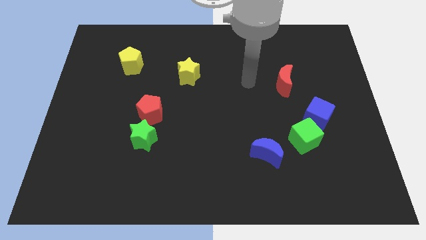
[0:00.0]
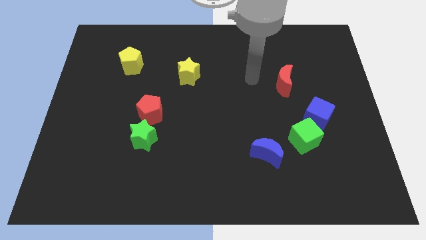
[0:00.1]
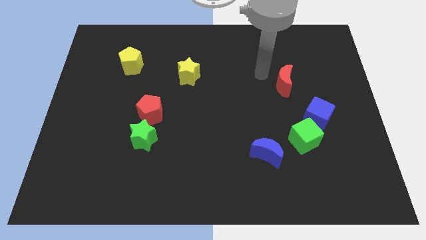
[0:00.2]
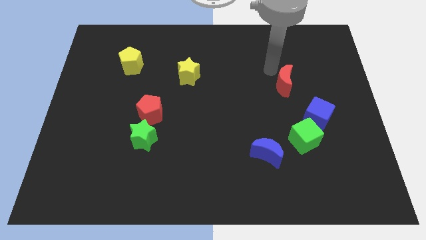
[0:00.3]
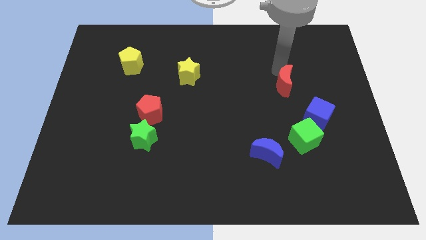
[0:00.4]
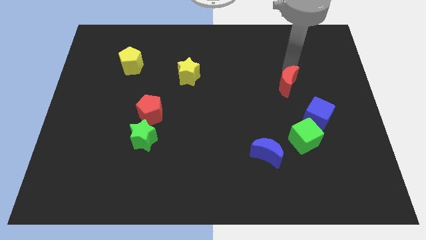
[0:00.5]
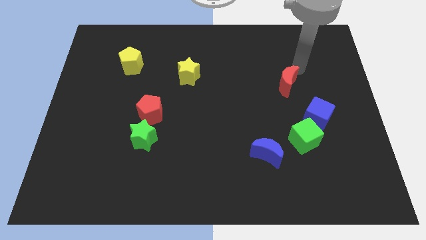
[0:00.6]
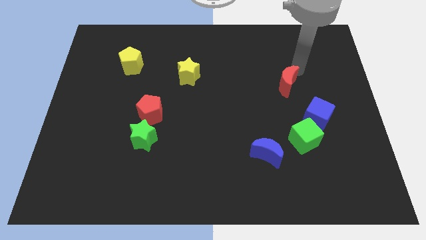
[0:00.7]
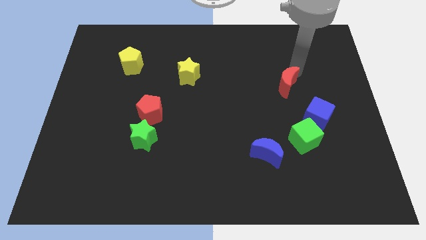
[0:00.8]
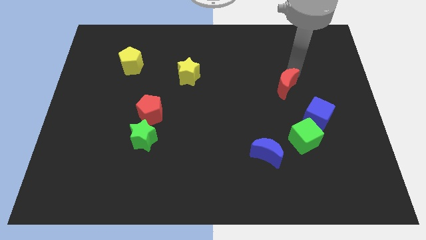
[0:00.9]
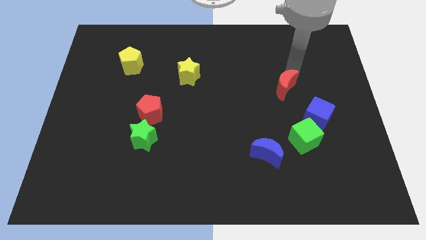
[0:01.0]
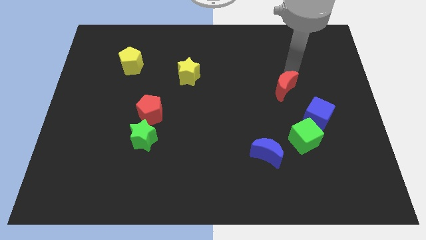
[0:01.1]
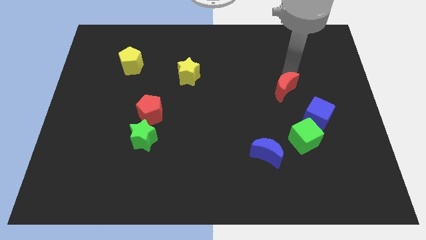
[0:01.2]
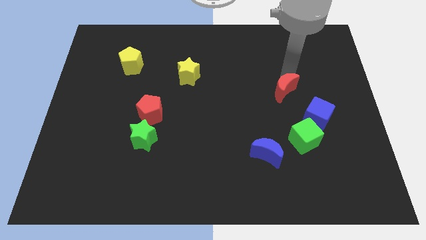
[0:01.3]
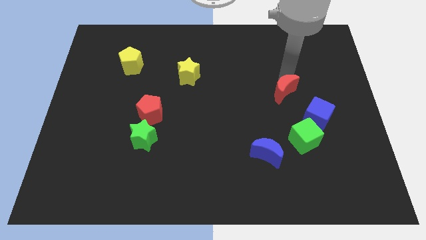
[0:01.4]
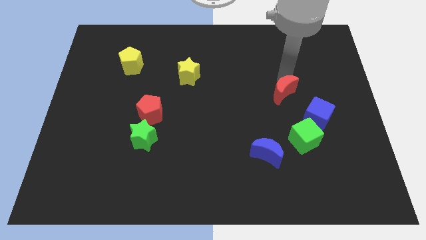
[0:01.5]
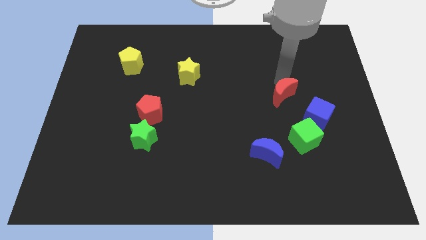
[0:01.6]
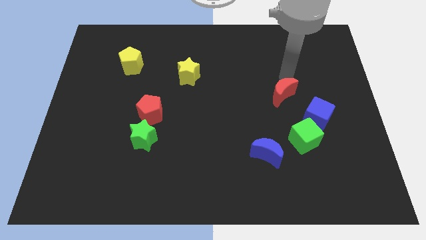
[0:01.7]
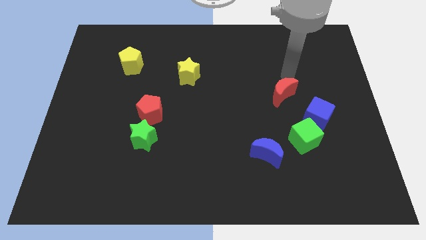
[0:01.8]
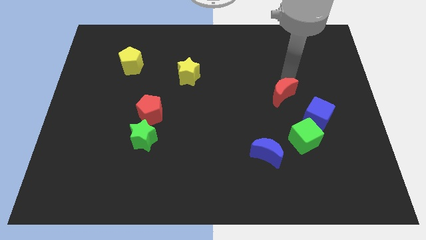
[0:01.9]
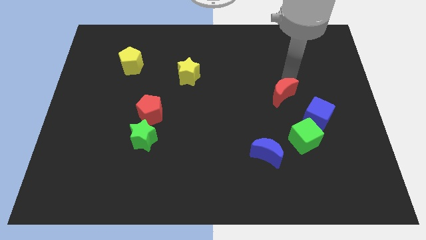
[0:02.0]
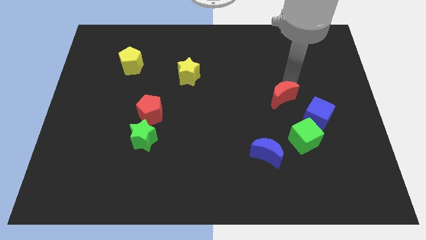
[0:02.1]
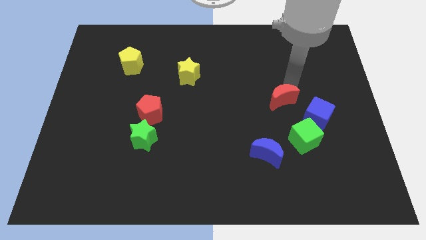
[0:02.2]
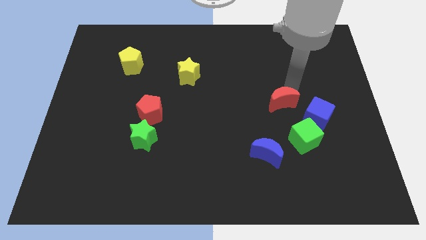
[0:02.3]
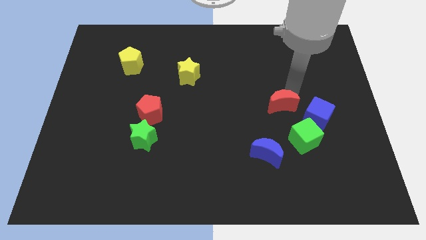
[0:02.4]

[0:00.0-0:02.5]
slightly push the red moon downwards

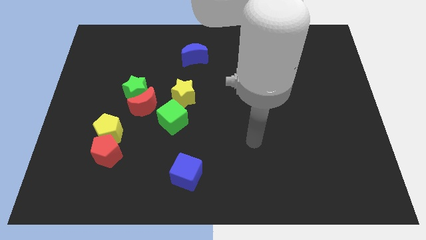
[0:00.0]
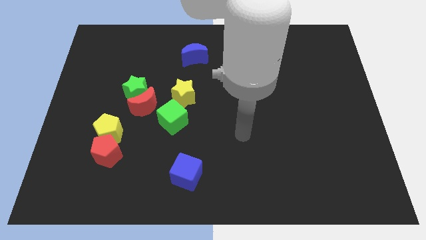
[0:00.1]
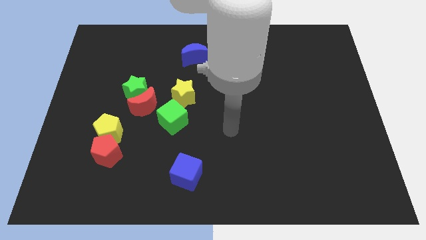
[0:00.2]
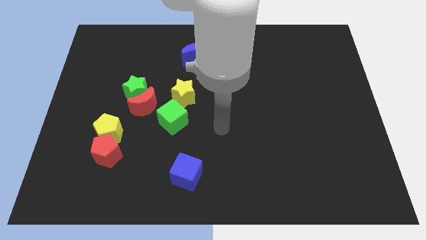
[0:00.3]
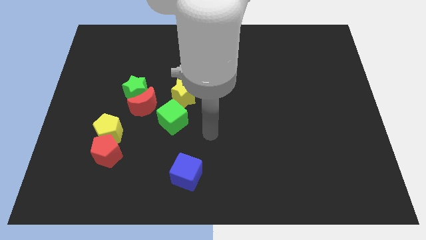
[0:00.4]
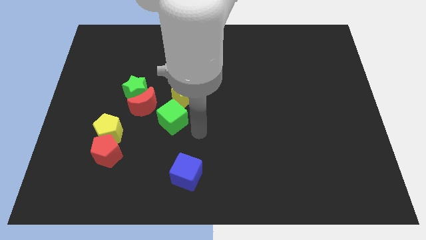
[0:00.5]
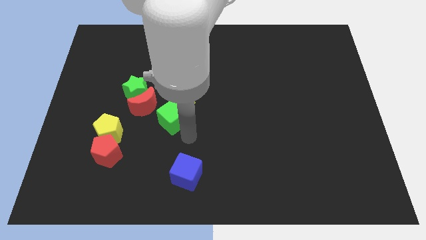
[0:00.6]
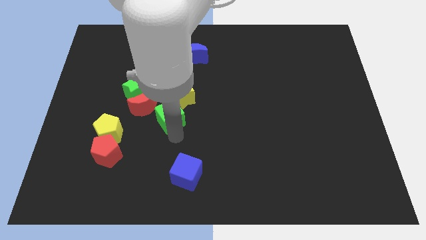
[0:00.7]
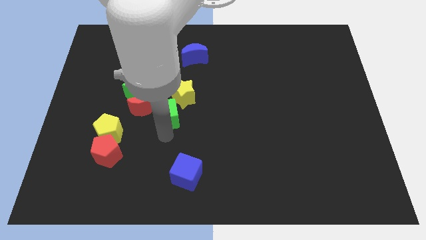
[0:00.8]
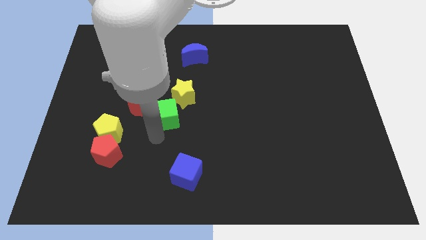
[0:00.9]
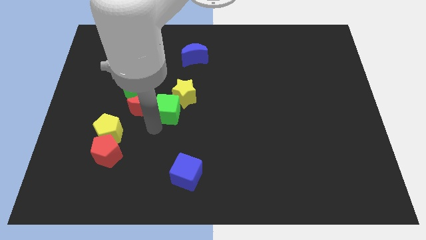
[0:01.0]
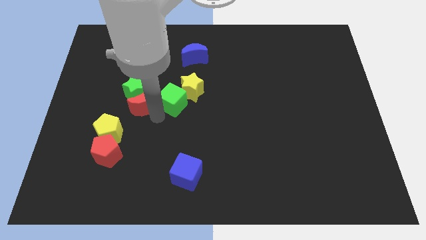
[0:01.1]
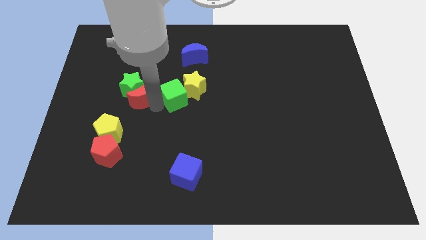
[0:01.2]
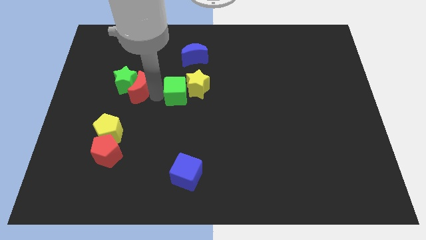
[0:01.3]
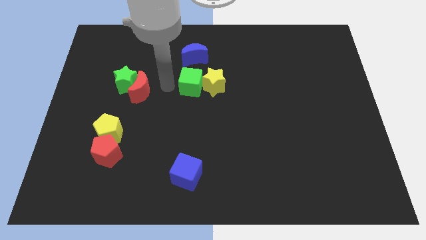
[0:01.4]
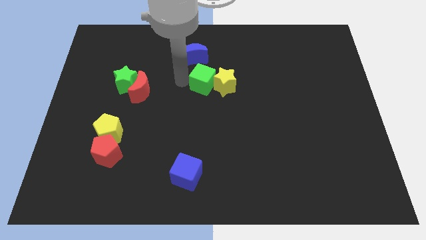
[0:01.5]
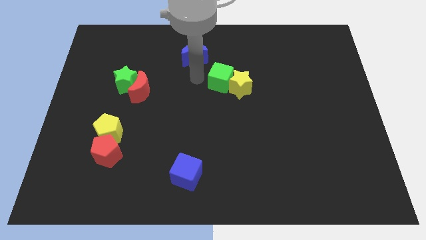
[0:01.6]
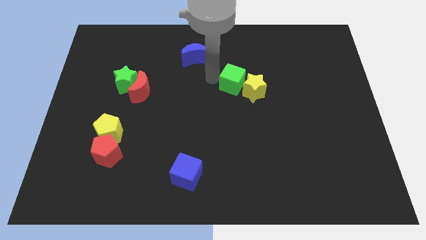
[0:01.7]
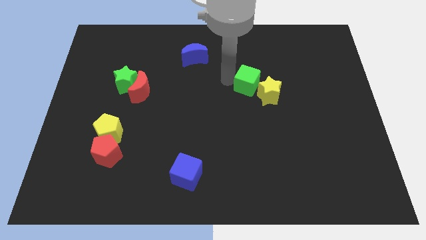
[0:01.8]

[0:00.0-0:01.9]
slide the yellow star right

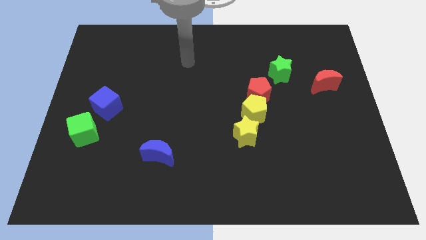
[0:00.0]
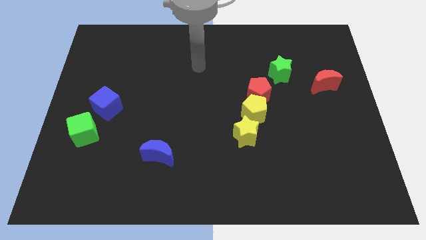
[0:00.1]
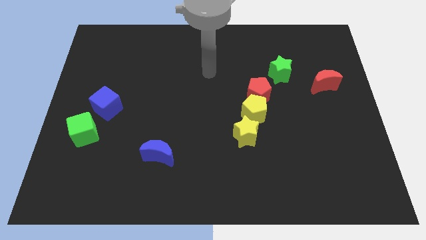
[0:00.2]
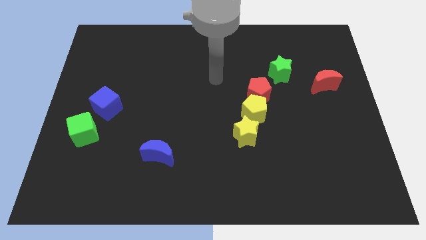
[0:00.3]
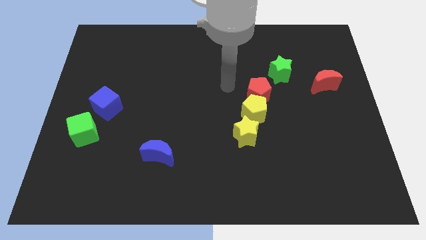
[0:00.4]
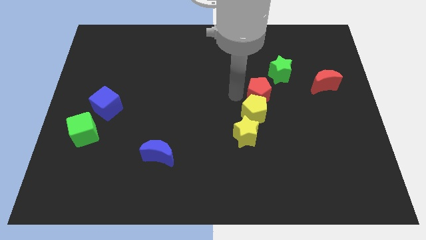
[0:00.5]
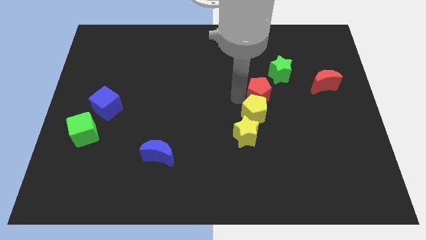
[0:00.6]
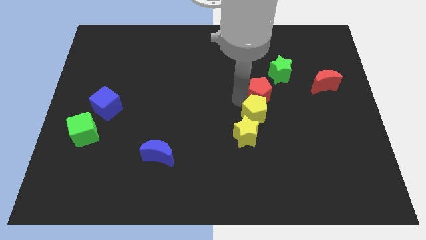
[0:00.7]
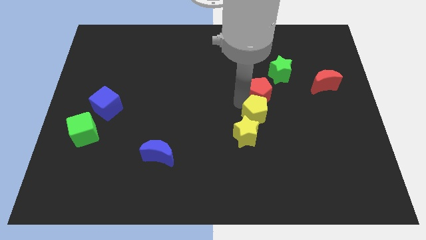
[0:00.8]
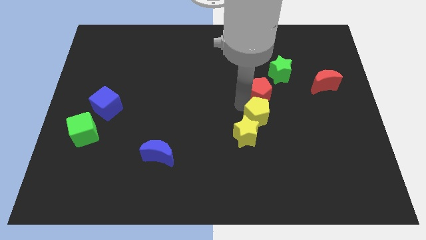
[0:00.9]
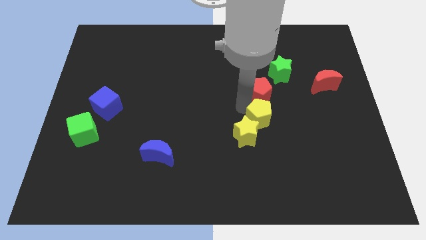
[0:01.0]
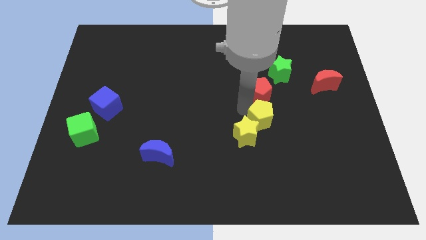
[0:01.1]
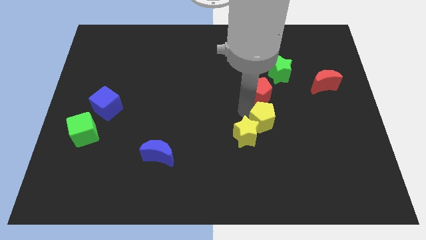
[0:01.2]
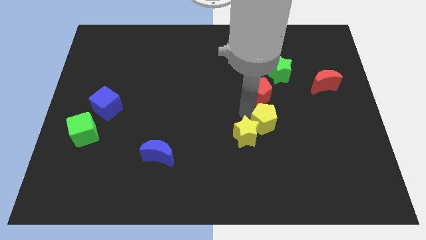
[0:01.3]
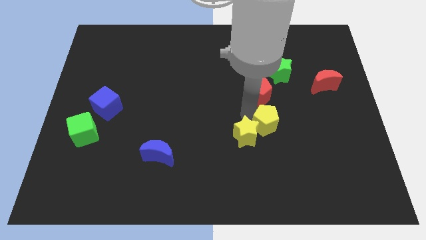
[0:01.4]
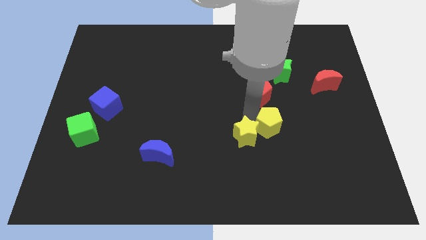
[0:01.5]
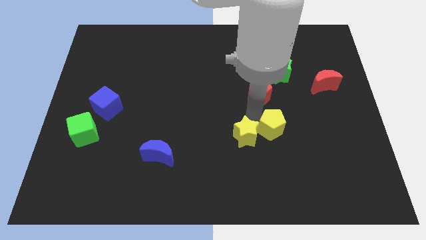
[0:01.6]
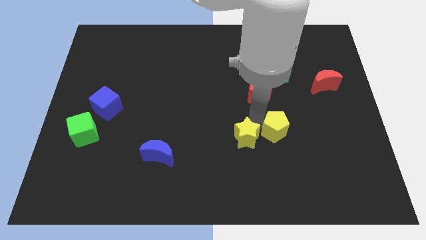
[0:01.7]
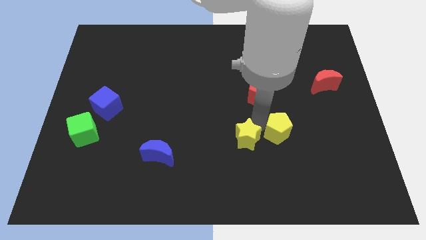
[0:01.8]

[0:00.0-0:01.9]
push the yellow pentagon down and then to the right somewhat

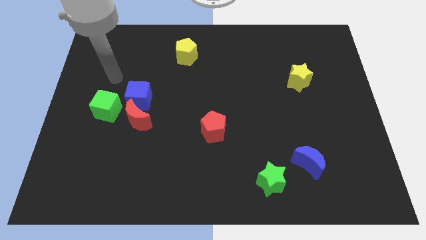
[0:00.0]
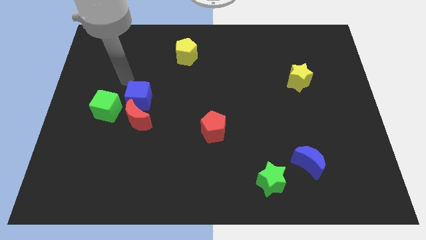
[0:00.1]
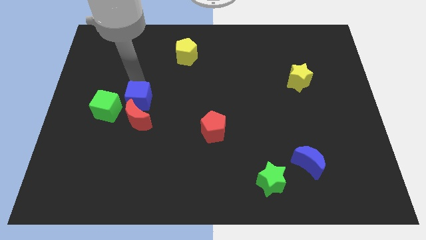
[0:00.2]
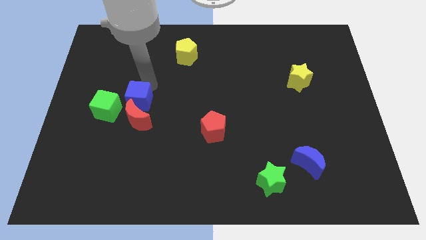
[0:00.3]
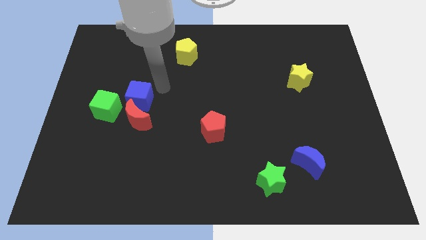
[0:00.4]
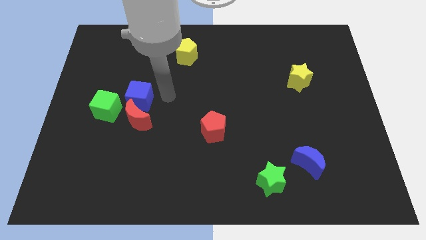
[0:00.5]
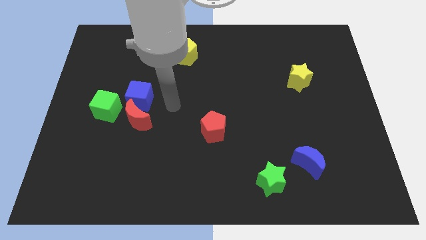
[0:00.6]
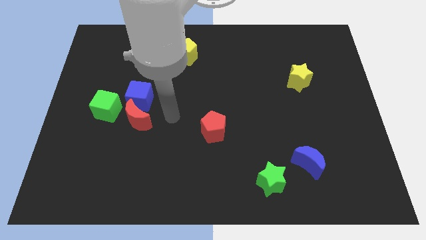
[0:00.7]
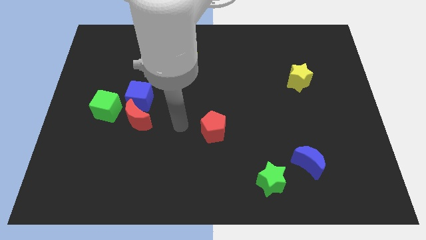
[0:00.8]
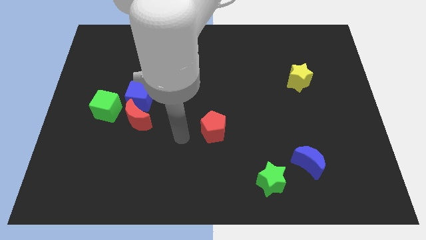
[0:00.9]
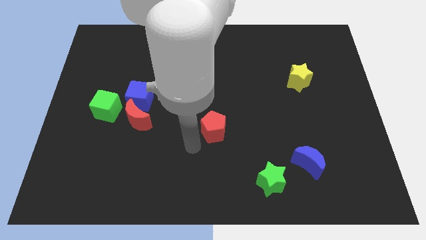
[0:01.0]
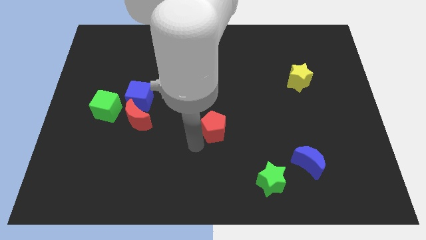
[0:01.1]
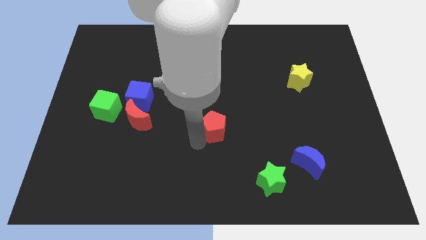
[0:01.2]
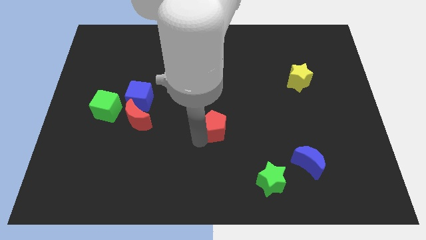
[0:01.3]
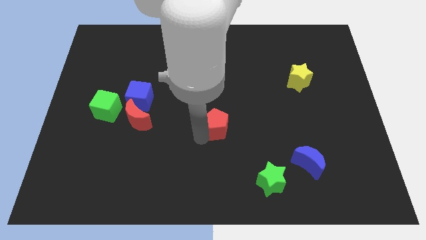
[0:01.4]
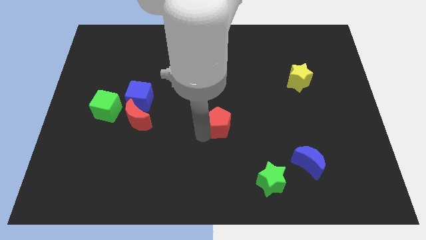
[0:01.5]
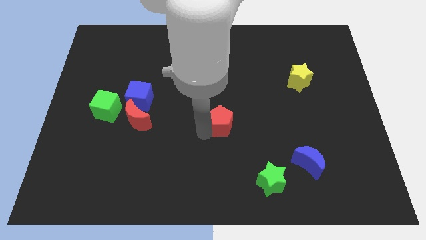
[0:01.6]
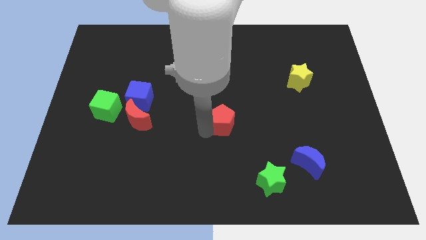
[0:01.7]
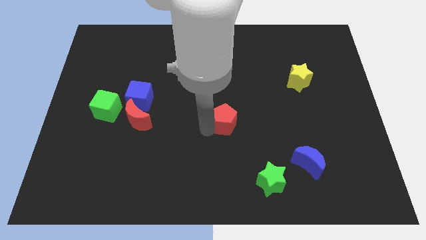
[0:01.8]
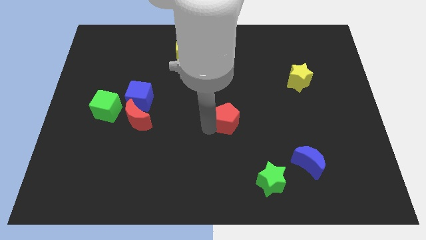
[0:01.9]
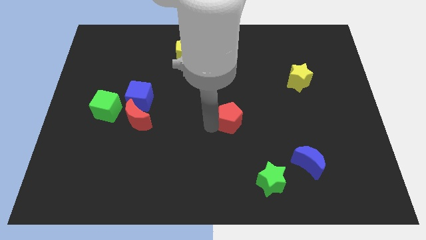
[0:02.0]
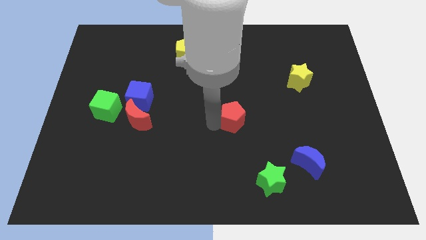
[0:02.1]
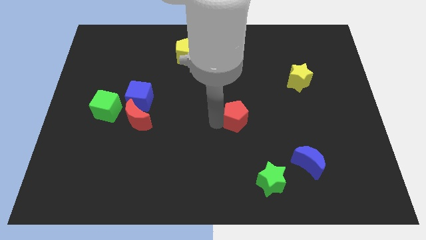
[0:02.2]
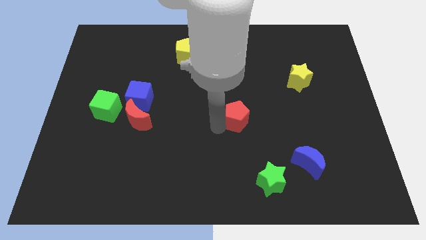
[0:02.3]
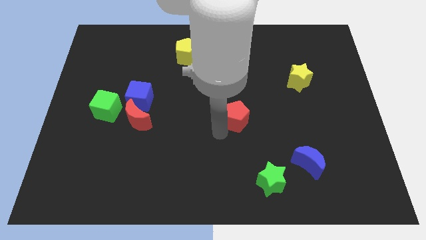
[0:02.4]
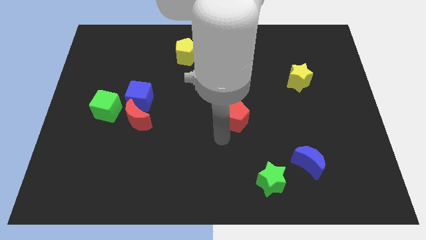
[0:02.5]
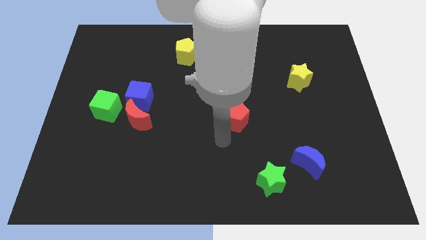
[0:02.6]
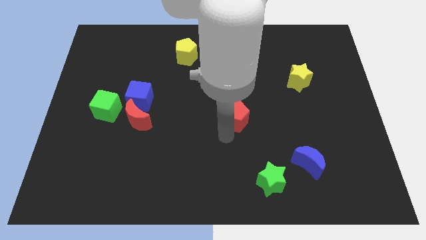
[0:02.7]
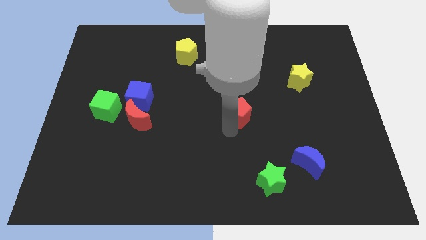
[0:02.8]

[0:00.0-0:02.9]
move the red pentagon slightly upwards and right diagonally
